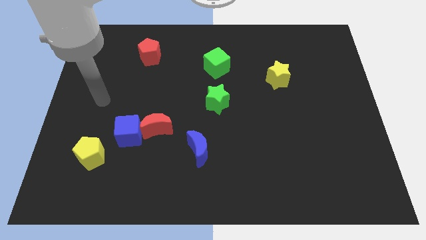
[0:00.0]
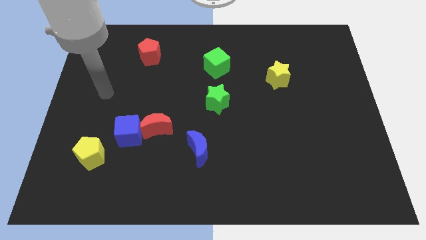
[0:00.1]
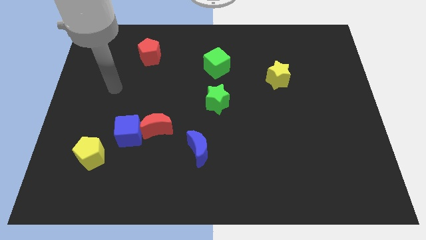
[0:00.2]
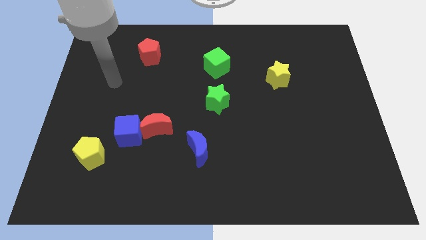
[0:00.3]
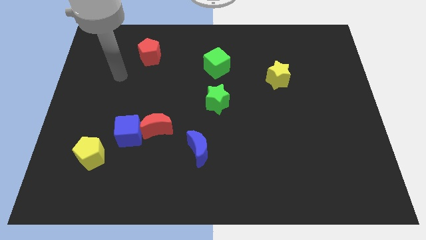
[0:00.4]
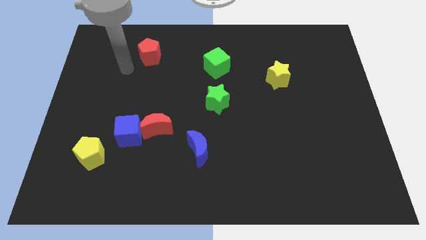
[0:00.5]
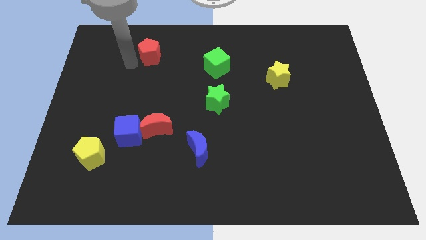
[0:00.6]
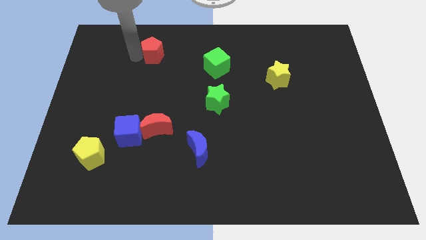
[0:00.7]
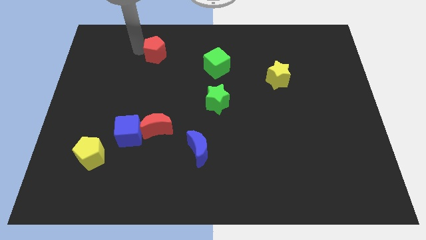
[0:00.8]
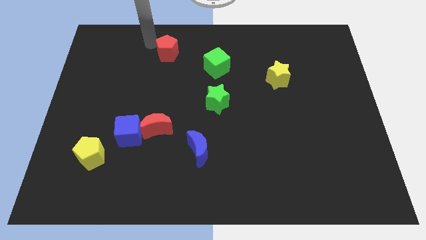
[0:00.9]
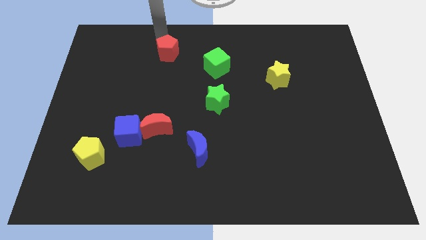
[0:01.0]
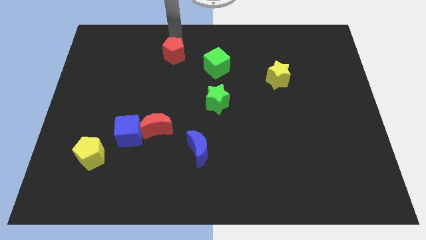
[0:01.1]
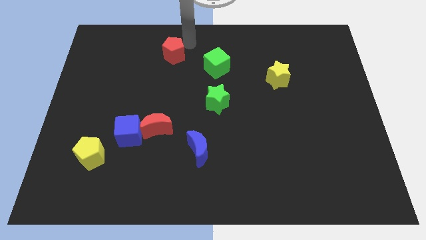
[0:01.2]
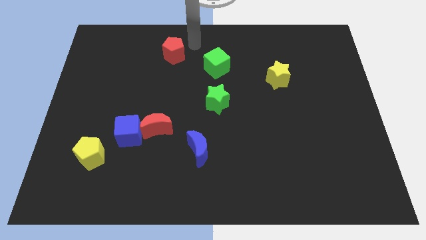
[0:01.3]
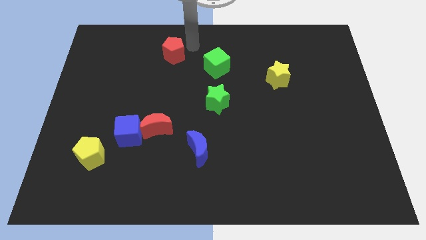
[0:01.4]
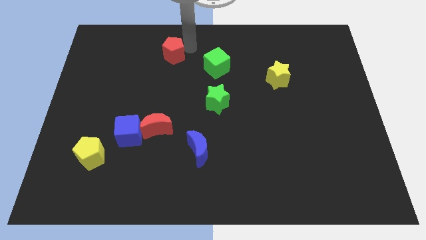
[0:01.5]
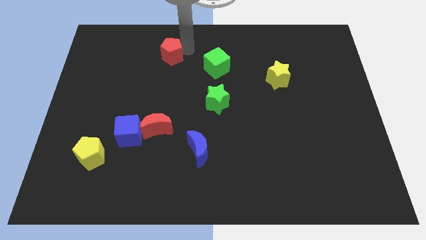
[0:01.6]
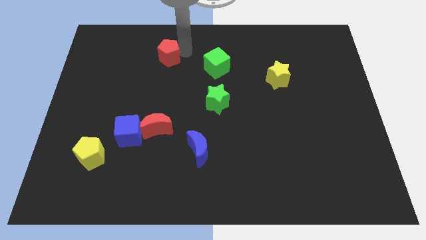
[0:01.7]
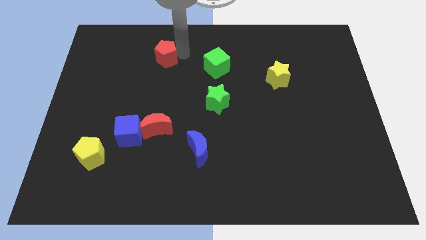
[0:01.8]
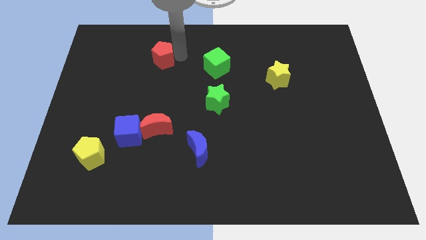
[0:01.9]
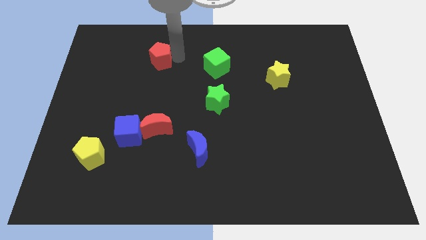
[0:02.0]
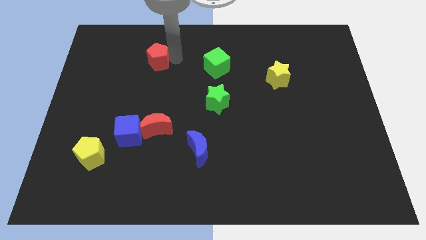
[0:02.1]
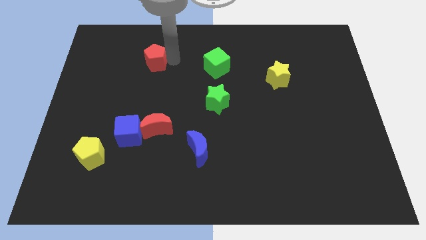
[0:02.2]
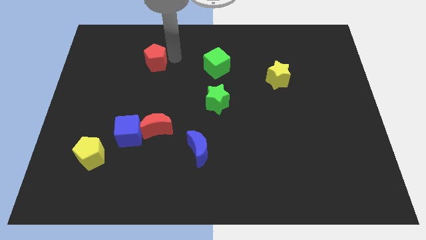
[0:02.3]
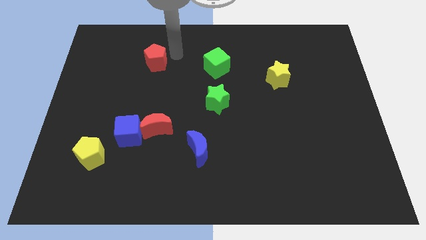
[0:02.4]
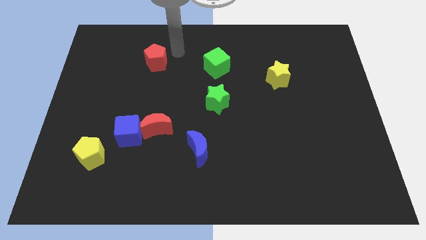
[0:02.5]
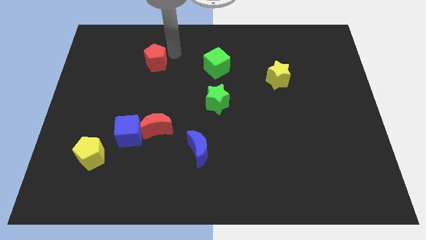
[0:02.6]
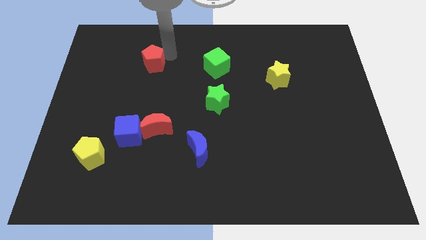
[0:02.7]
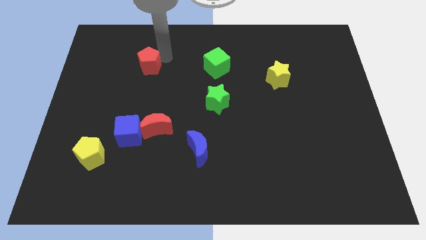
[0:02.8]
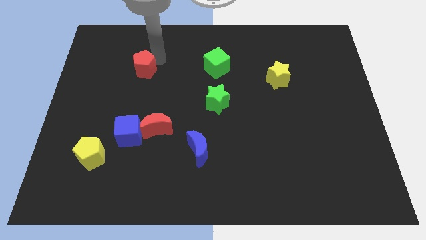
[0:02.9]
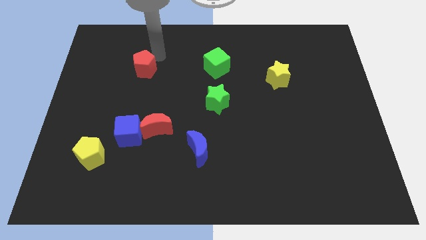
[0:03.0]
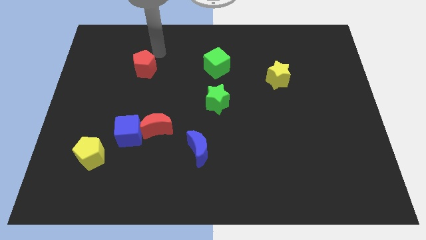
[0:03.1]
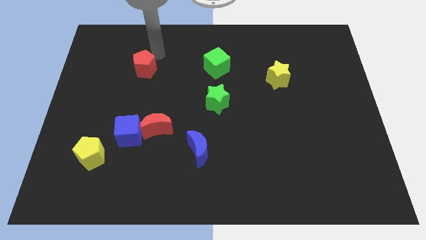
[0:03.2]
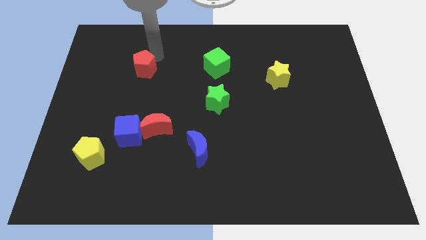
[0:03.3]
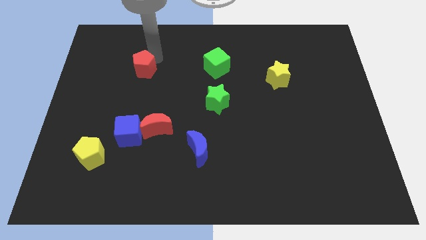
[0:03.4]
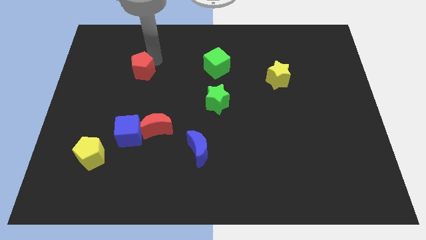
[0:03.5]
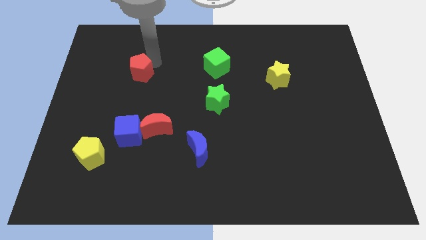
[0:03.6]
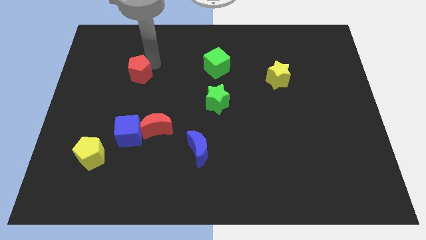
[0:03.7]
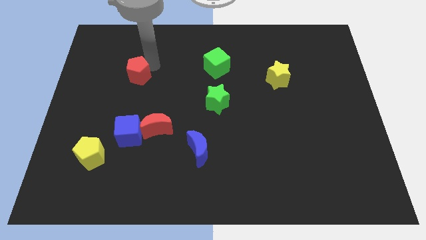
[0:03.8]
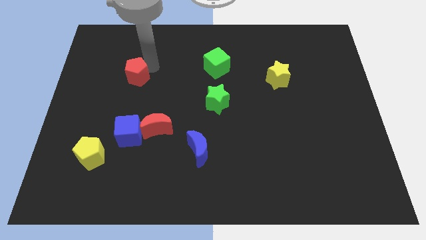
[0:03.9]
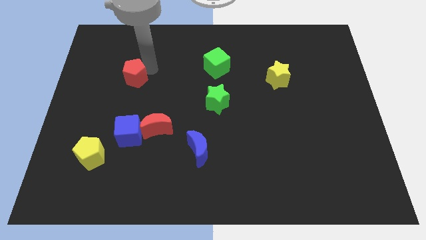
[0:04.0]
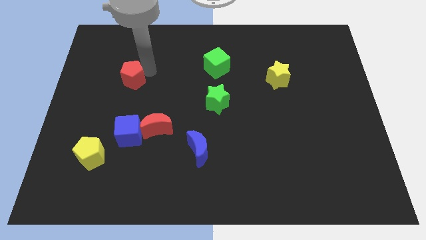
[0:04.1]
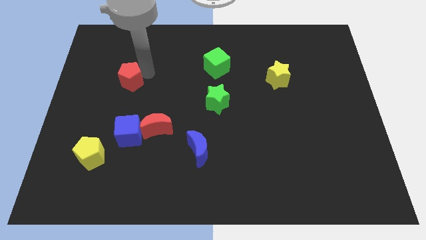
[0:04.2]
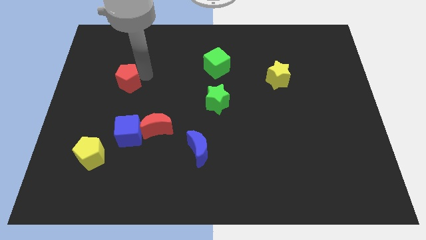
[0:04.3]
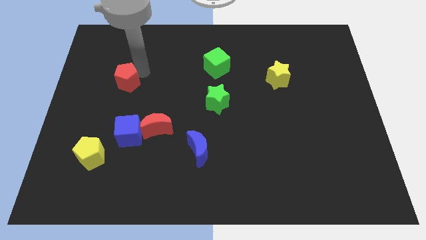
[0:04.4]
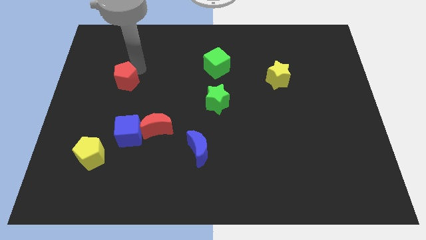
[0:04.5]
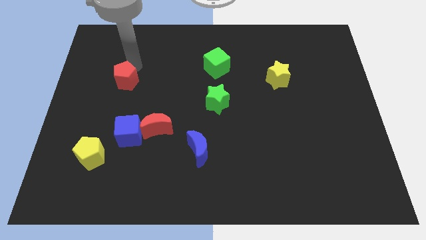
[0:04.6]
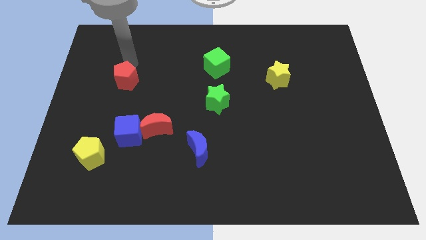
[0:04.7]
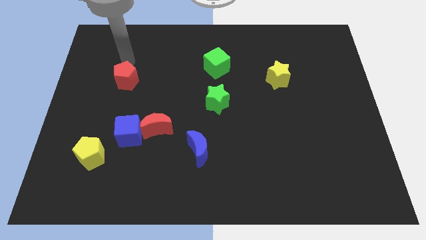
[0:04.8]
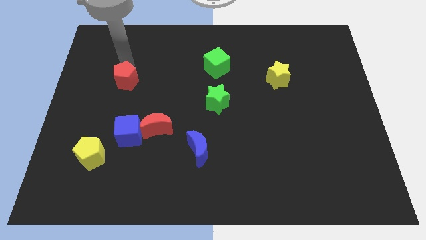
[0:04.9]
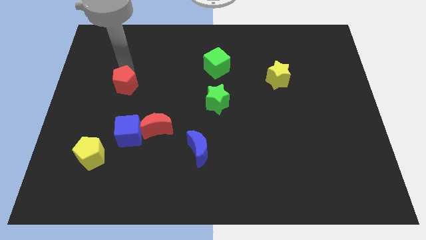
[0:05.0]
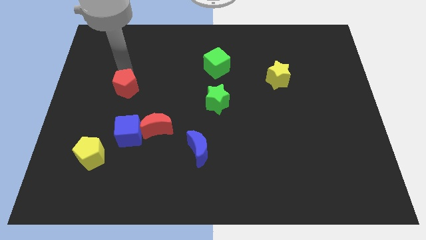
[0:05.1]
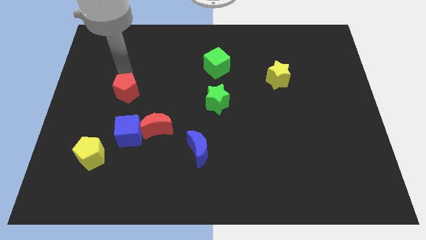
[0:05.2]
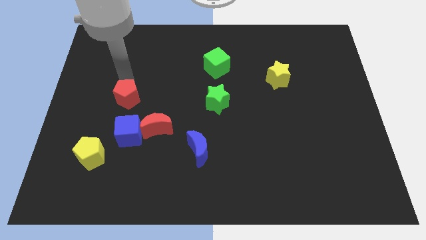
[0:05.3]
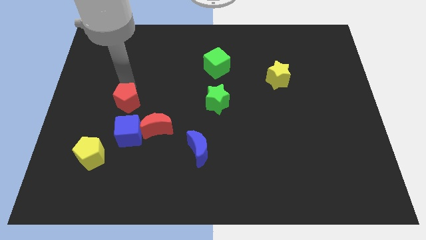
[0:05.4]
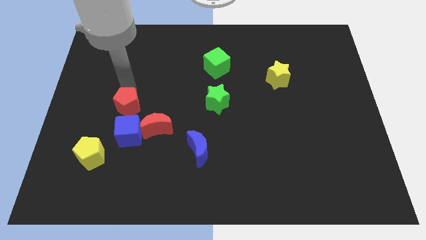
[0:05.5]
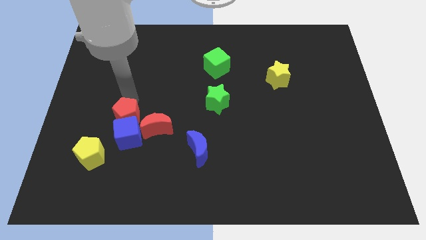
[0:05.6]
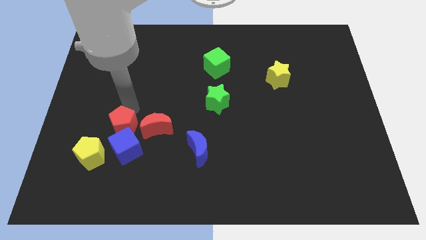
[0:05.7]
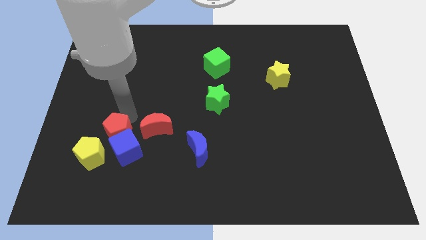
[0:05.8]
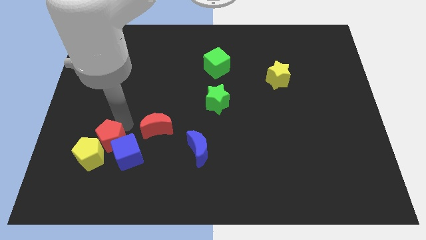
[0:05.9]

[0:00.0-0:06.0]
slide the red pentagon to the yellow pentagon

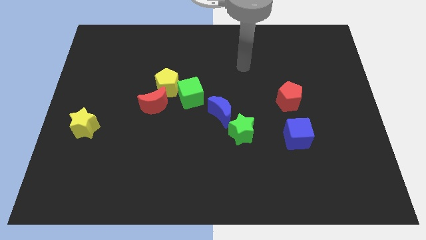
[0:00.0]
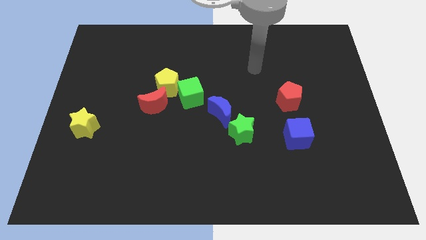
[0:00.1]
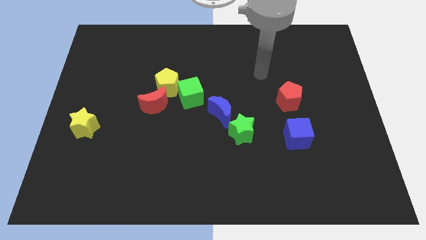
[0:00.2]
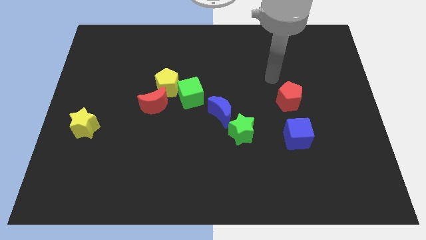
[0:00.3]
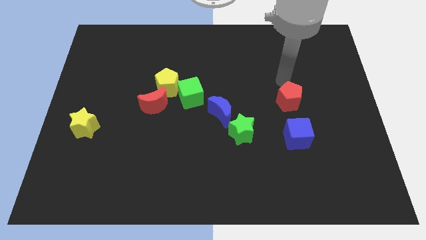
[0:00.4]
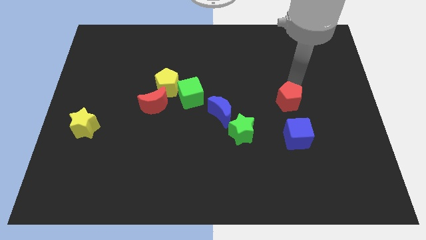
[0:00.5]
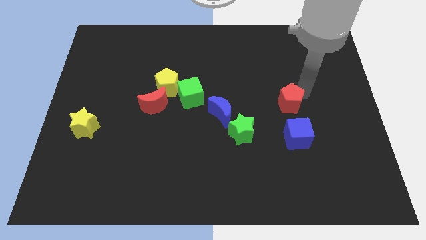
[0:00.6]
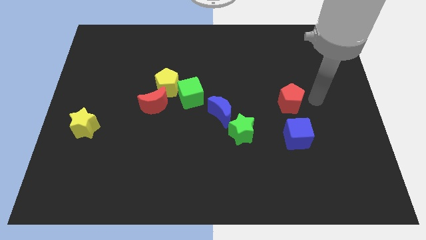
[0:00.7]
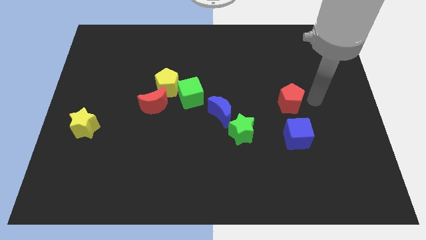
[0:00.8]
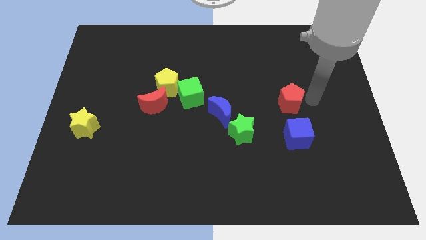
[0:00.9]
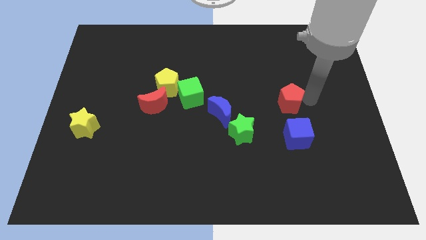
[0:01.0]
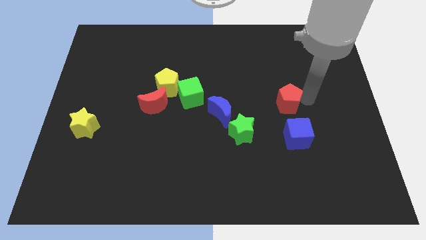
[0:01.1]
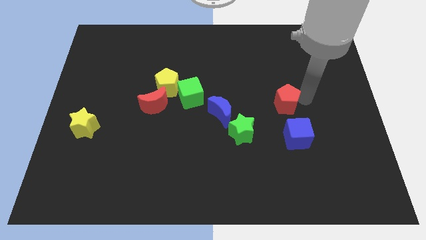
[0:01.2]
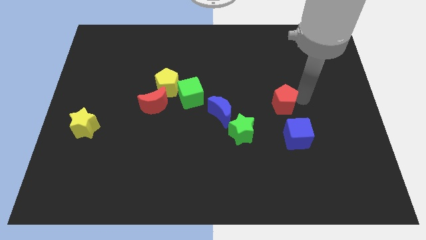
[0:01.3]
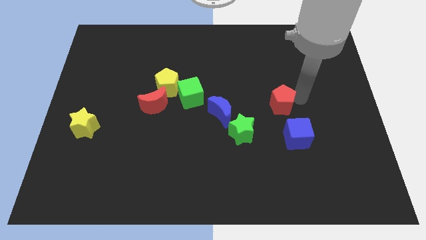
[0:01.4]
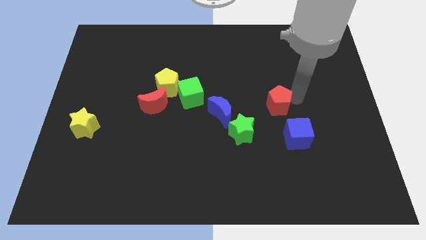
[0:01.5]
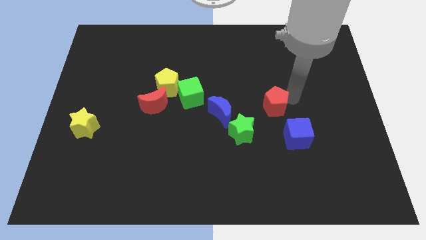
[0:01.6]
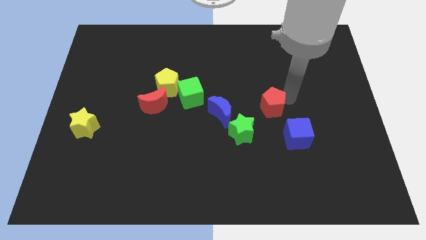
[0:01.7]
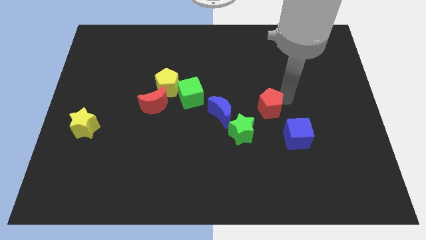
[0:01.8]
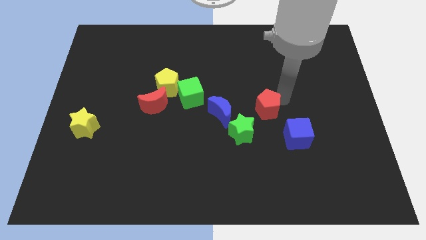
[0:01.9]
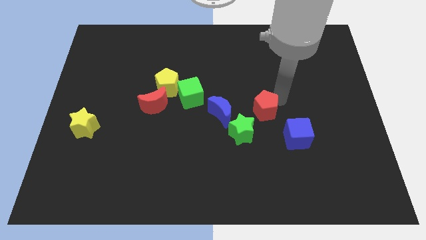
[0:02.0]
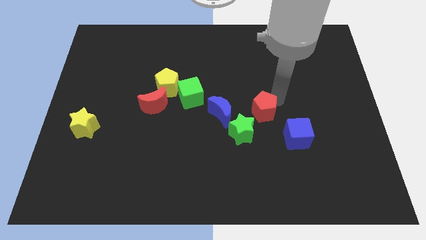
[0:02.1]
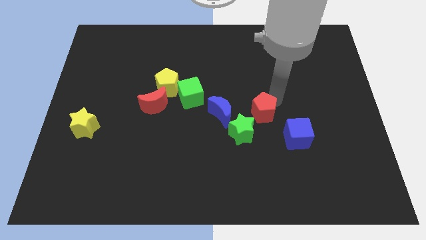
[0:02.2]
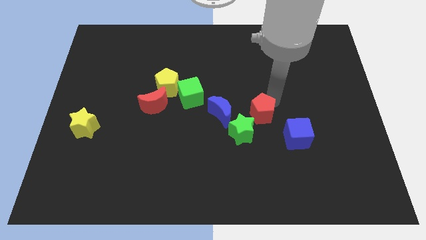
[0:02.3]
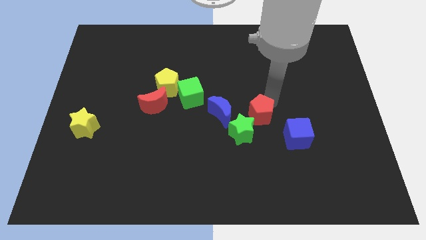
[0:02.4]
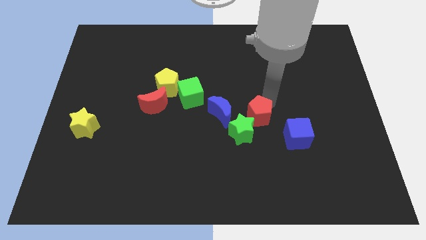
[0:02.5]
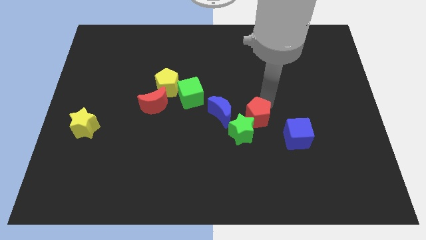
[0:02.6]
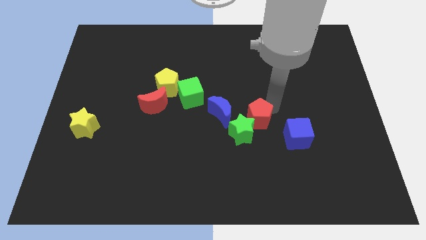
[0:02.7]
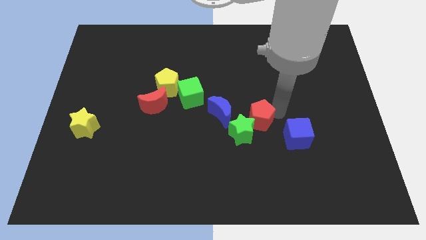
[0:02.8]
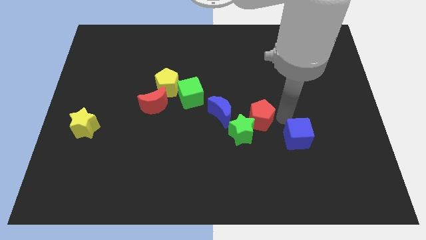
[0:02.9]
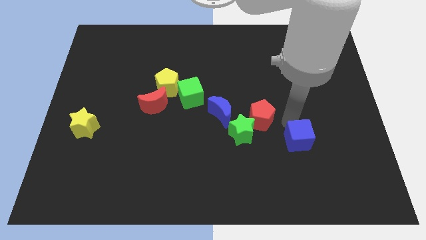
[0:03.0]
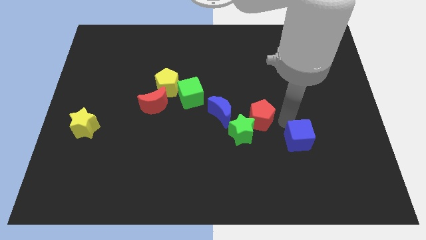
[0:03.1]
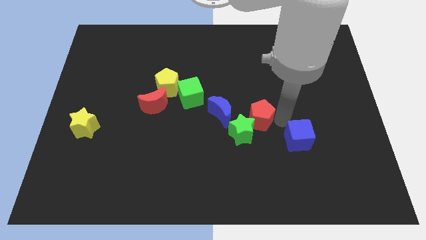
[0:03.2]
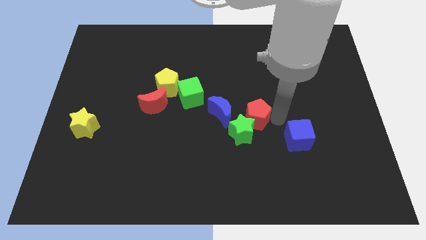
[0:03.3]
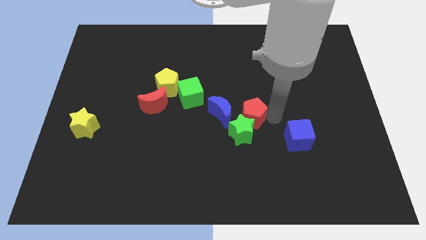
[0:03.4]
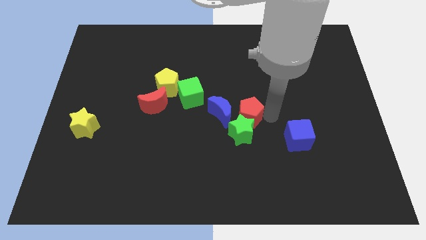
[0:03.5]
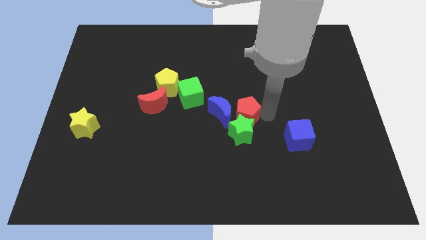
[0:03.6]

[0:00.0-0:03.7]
push the red pentagon close to the blue moon
